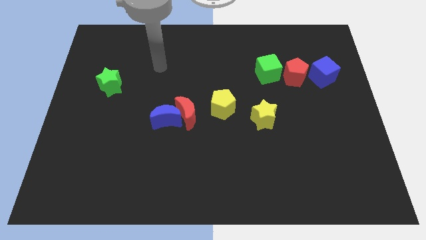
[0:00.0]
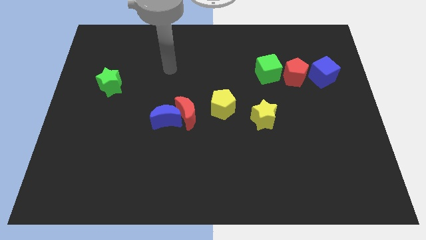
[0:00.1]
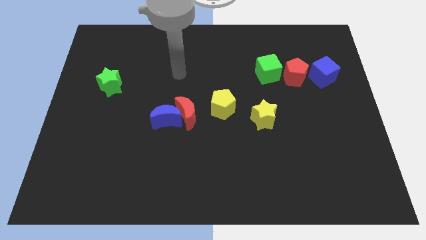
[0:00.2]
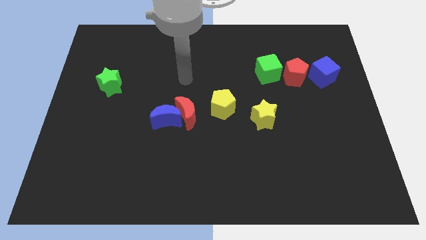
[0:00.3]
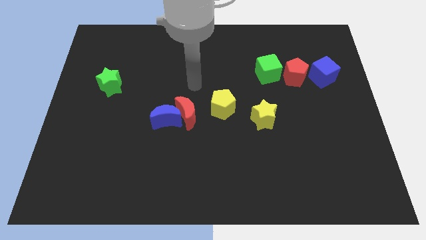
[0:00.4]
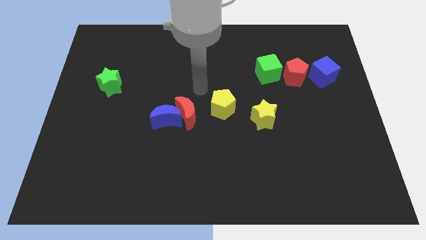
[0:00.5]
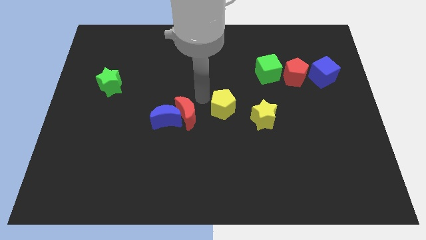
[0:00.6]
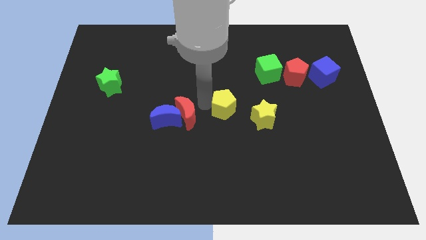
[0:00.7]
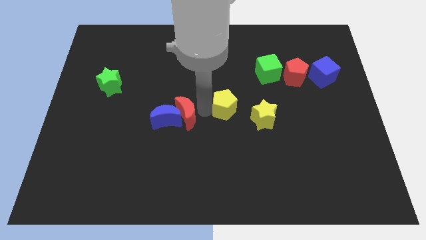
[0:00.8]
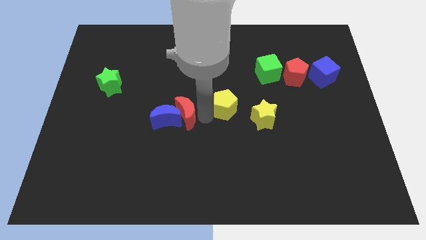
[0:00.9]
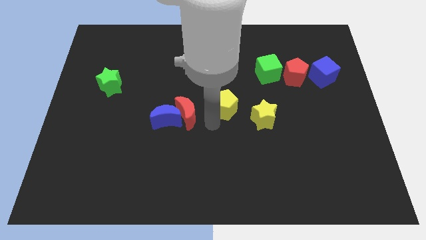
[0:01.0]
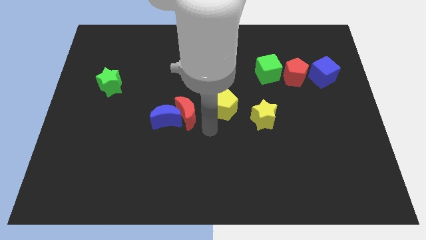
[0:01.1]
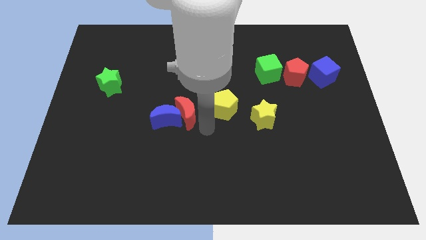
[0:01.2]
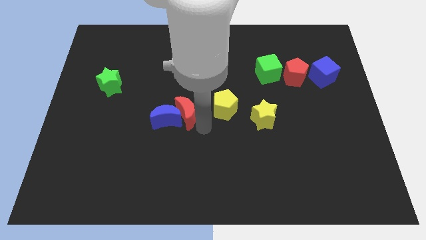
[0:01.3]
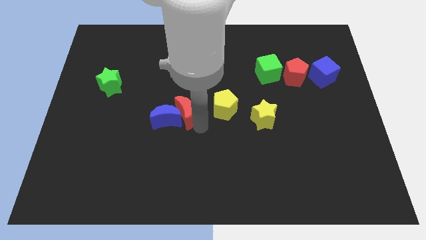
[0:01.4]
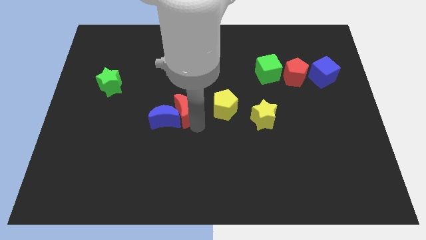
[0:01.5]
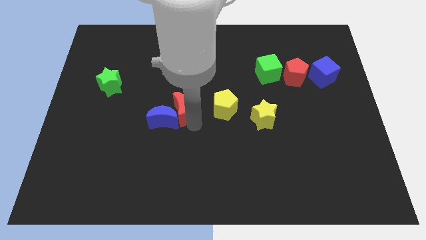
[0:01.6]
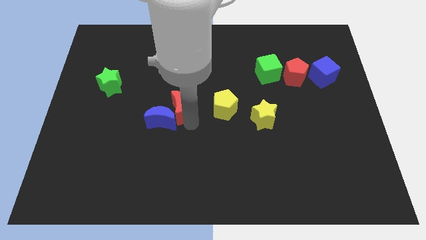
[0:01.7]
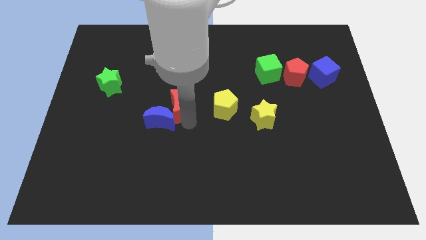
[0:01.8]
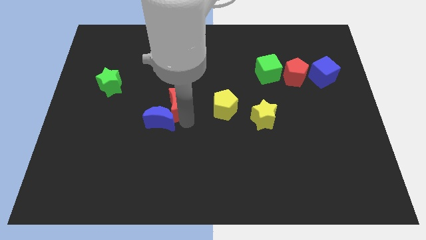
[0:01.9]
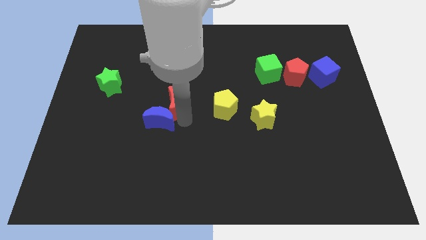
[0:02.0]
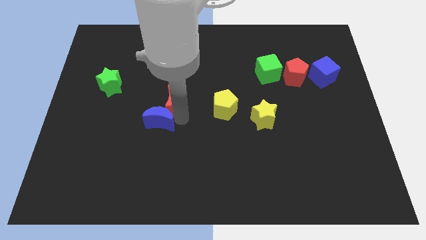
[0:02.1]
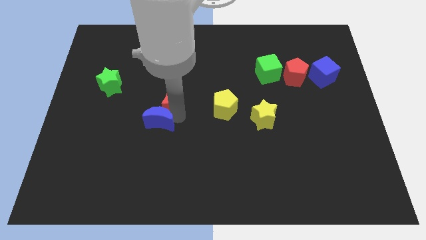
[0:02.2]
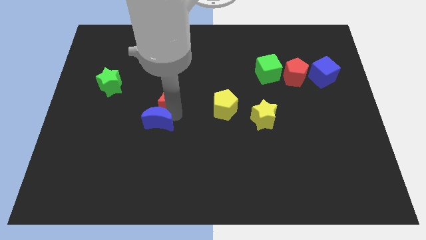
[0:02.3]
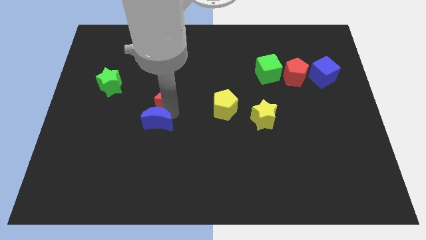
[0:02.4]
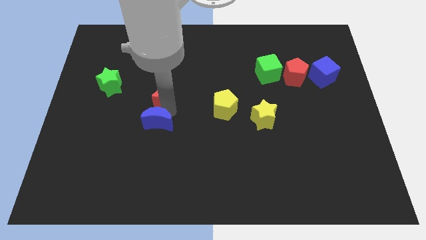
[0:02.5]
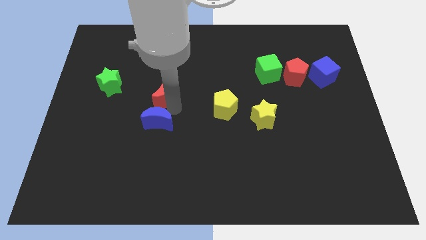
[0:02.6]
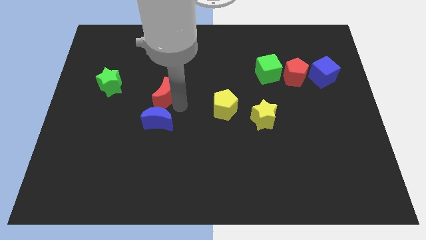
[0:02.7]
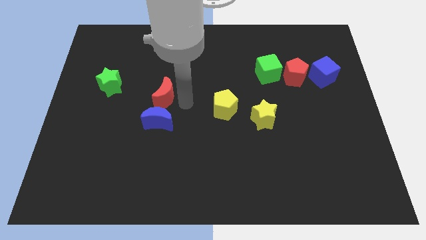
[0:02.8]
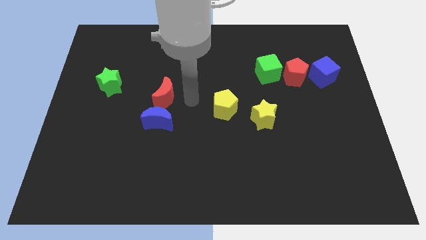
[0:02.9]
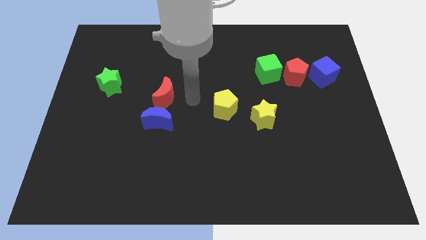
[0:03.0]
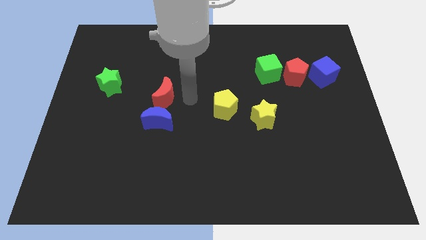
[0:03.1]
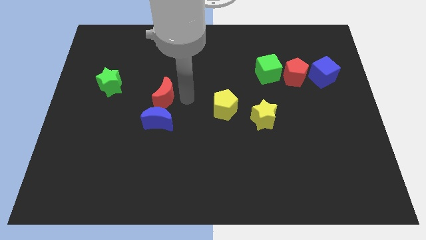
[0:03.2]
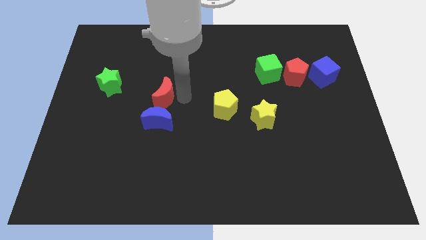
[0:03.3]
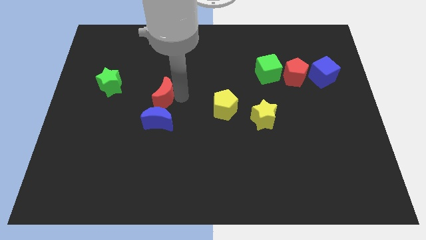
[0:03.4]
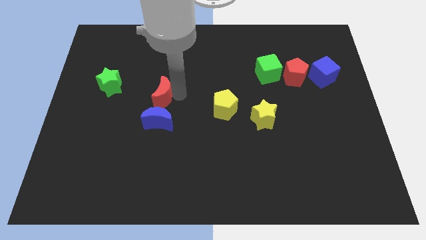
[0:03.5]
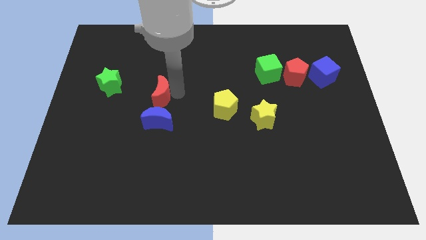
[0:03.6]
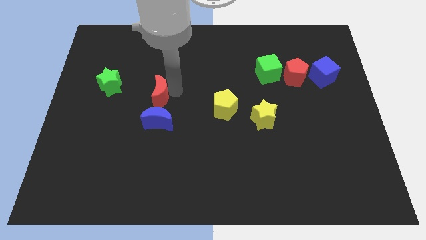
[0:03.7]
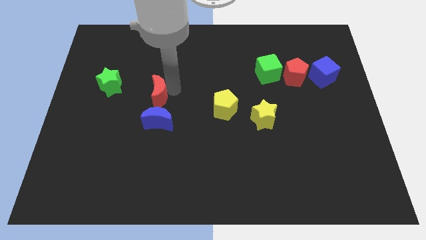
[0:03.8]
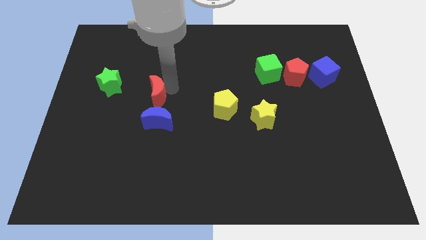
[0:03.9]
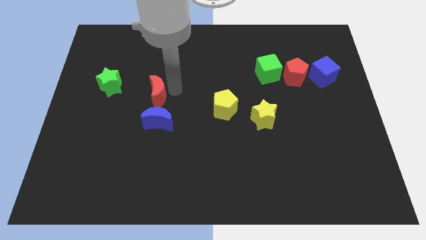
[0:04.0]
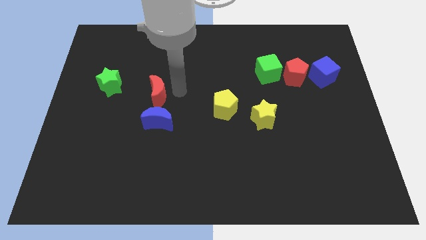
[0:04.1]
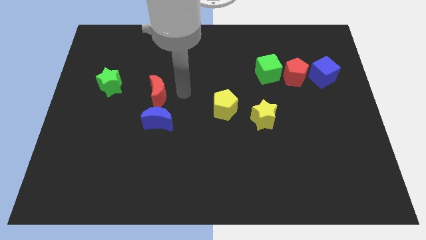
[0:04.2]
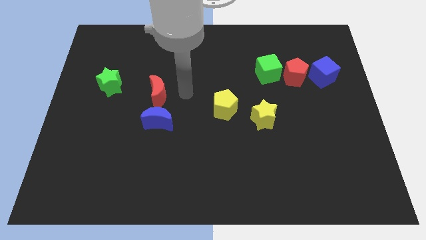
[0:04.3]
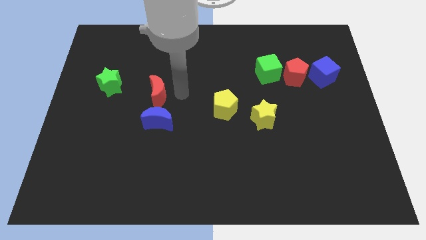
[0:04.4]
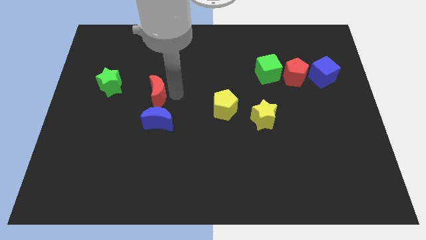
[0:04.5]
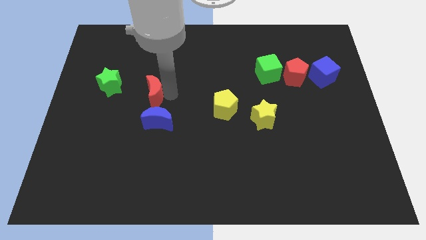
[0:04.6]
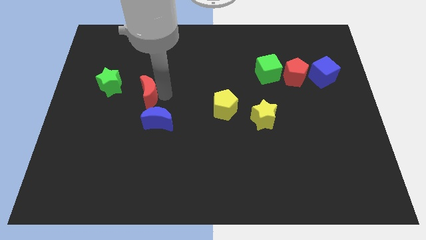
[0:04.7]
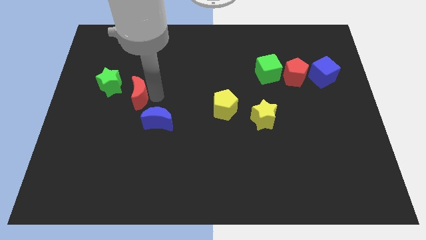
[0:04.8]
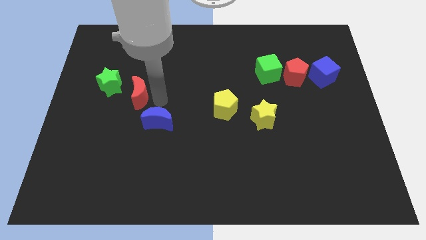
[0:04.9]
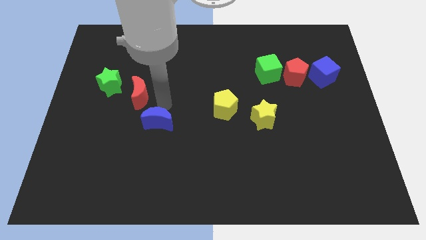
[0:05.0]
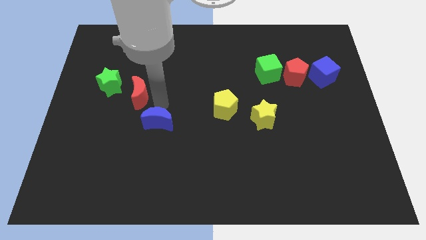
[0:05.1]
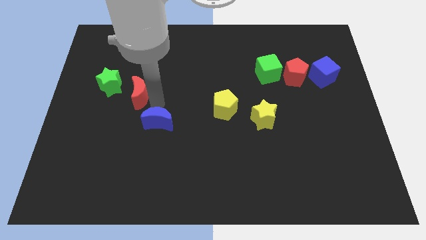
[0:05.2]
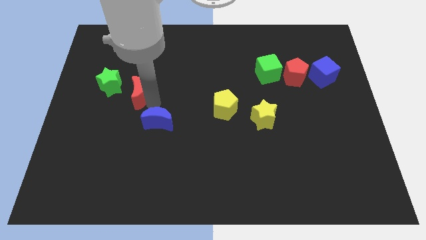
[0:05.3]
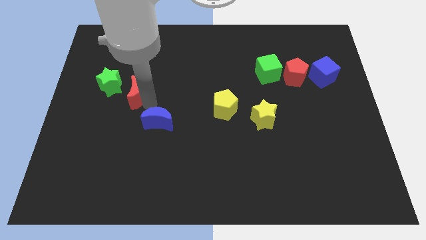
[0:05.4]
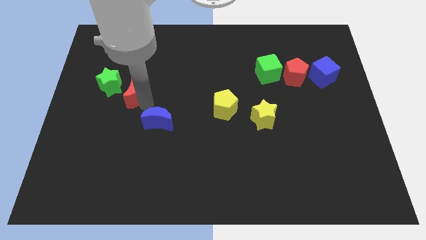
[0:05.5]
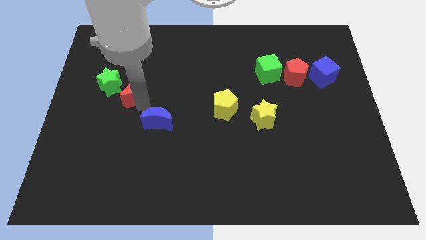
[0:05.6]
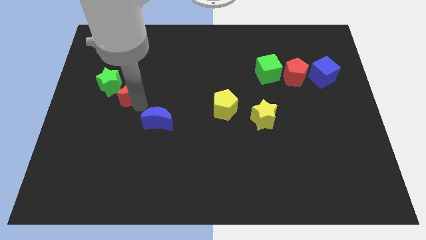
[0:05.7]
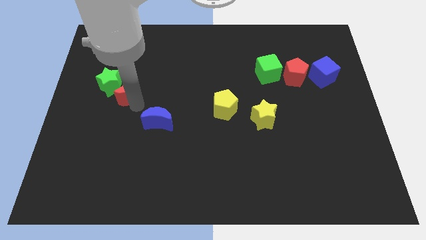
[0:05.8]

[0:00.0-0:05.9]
slide the red moon close to the green star

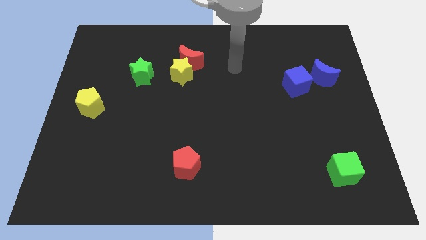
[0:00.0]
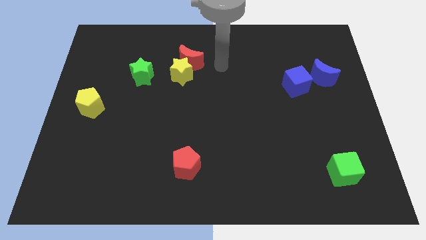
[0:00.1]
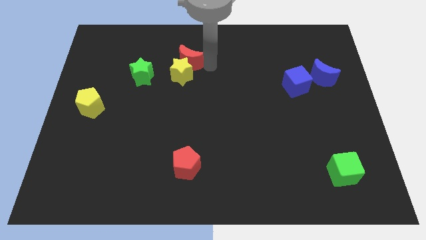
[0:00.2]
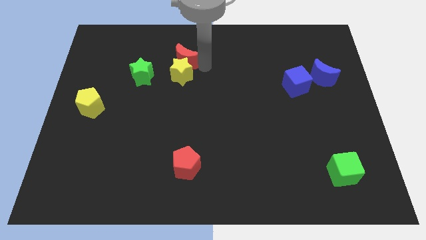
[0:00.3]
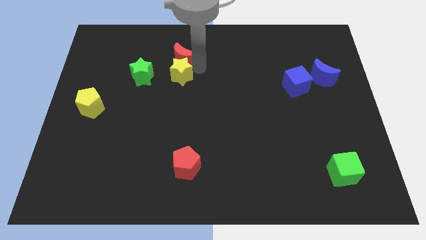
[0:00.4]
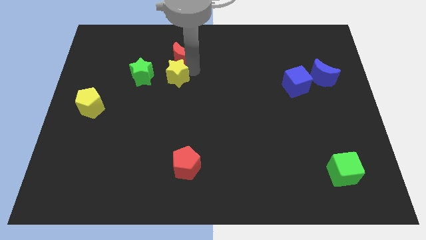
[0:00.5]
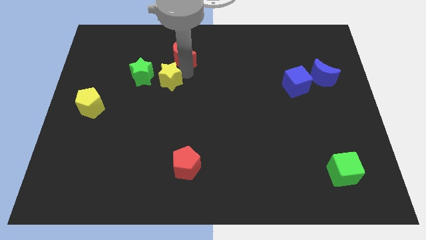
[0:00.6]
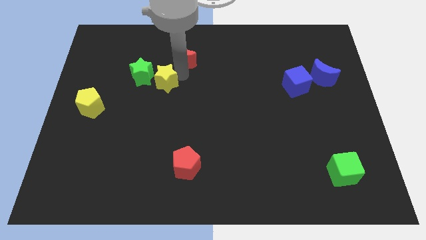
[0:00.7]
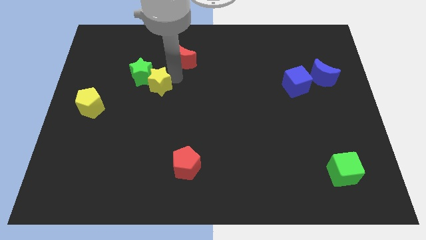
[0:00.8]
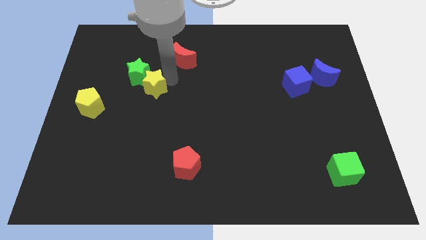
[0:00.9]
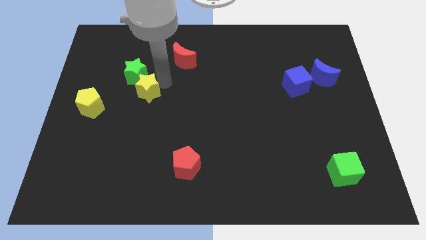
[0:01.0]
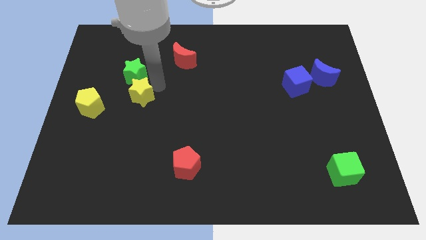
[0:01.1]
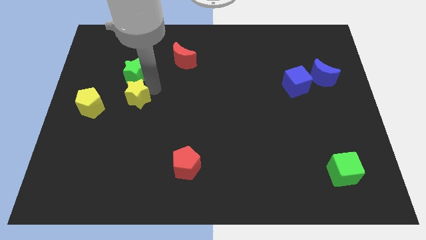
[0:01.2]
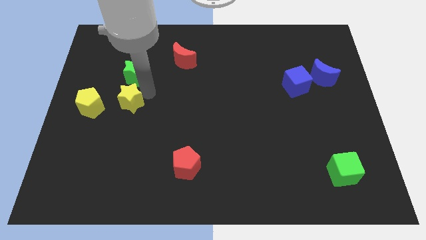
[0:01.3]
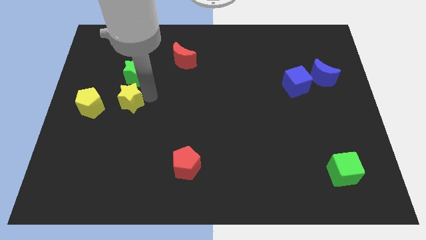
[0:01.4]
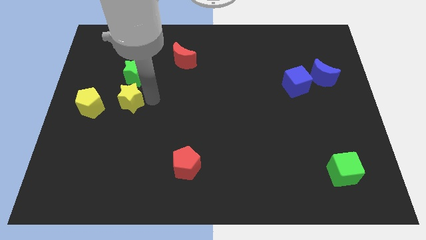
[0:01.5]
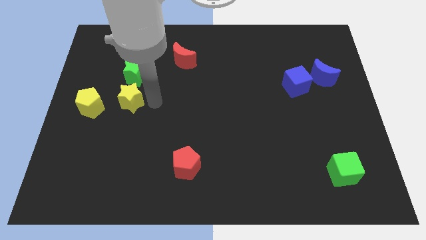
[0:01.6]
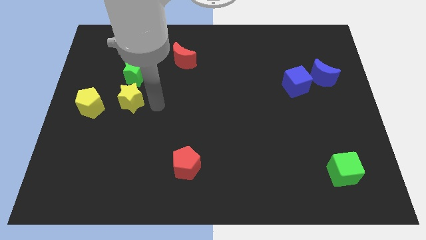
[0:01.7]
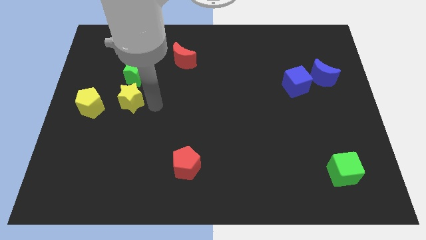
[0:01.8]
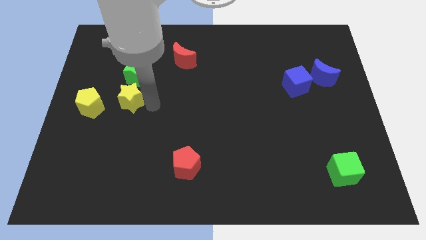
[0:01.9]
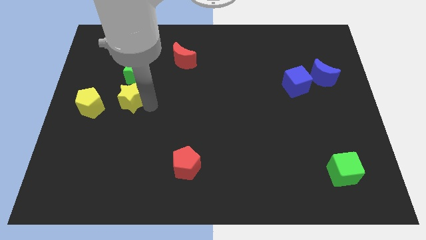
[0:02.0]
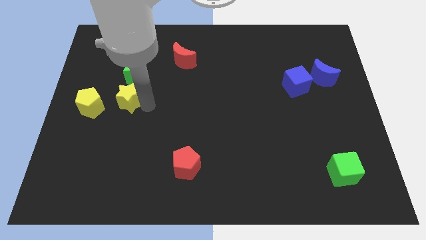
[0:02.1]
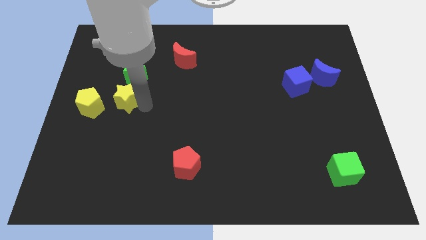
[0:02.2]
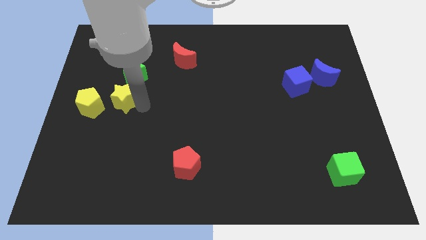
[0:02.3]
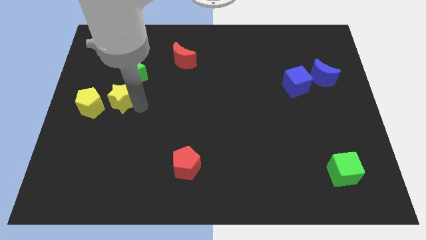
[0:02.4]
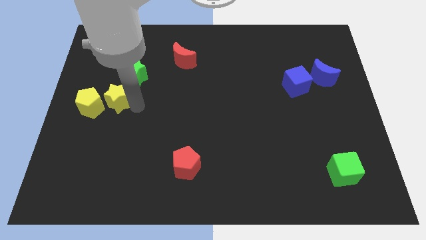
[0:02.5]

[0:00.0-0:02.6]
move the yellow star to the yellow pentagon
